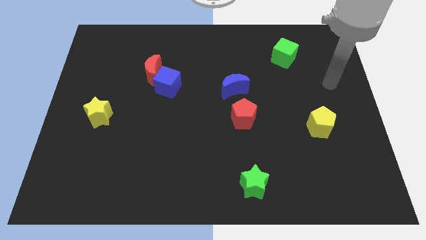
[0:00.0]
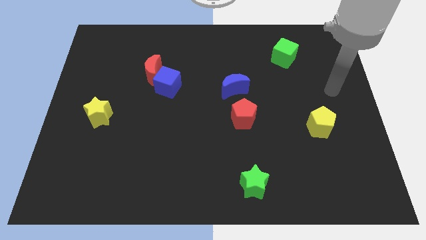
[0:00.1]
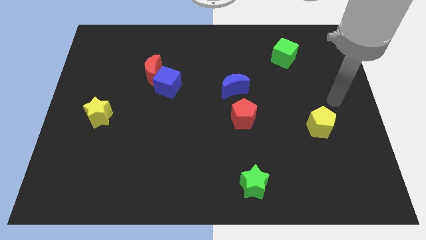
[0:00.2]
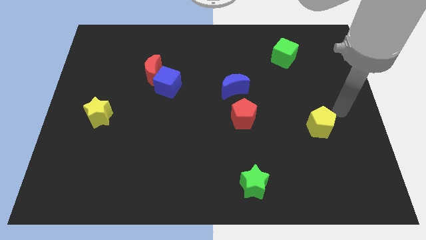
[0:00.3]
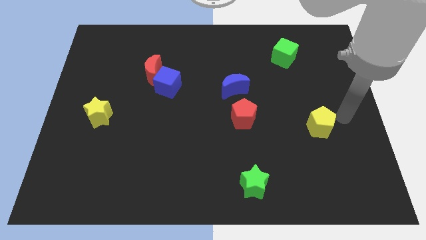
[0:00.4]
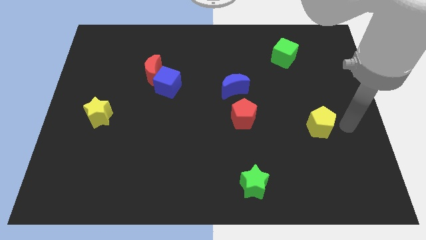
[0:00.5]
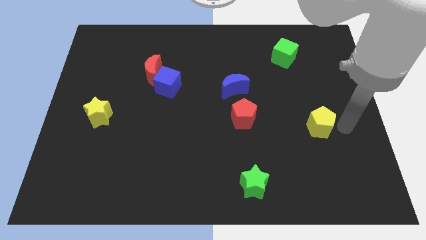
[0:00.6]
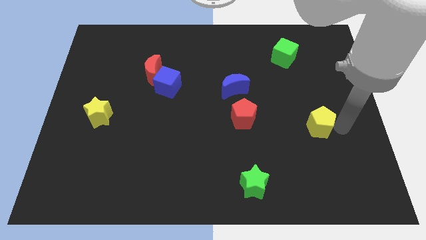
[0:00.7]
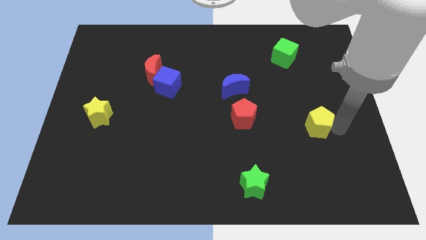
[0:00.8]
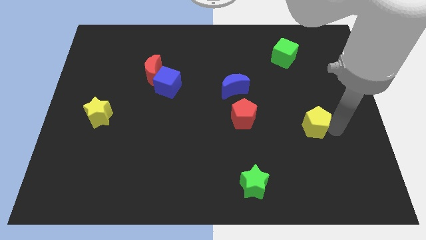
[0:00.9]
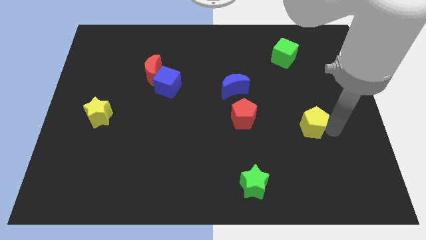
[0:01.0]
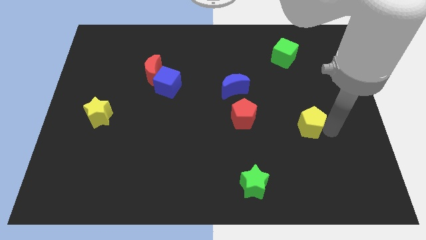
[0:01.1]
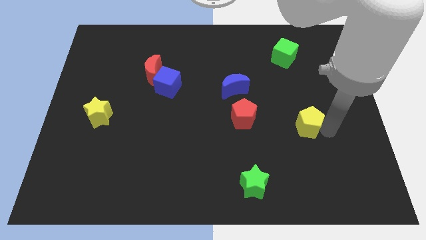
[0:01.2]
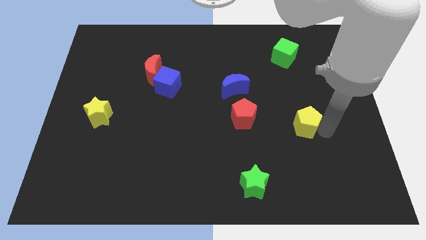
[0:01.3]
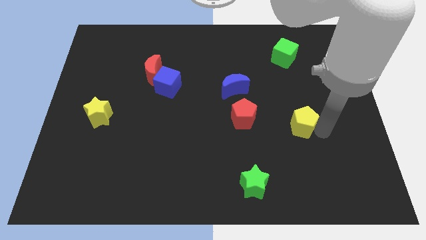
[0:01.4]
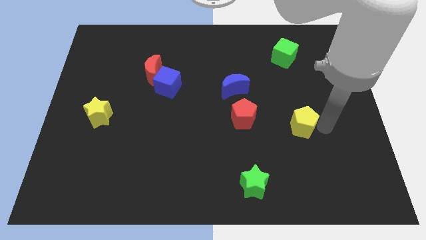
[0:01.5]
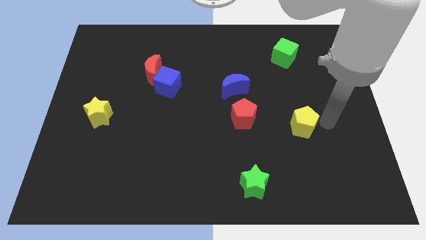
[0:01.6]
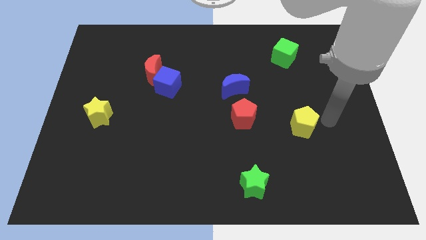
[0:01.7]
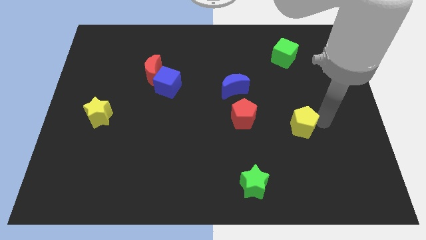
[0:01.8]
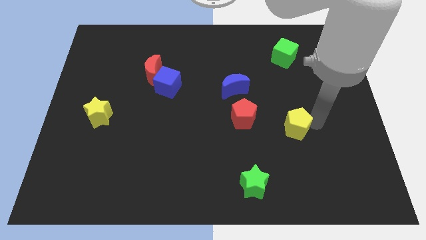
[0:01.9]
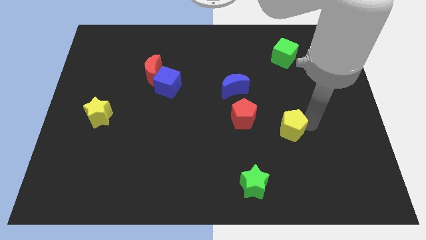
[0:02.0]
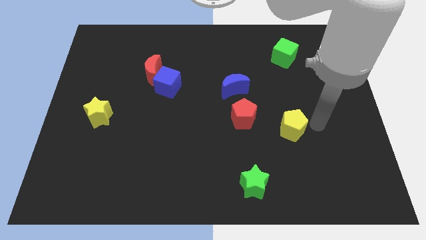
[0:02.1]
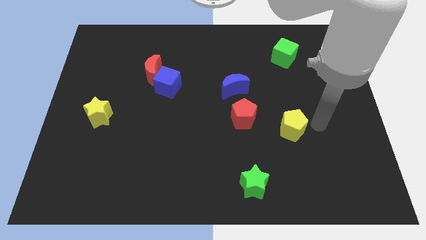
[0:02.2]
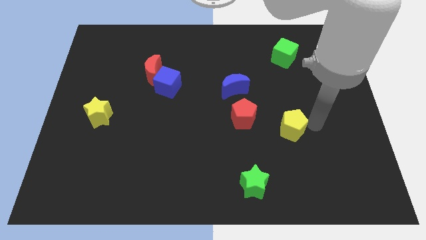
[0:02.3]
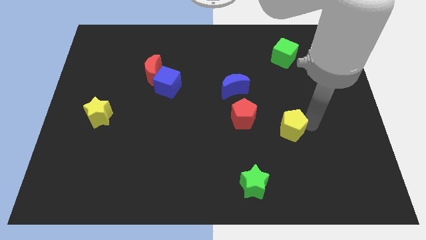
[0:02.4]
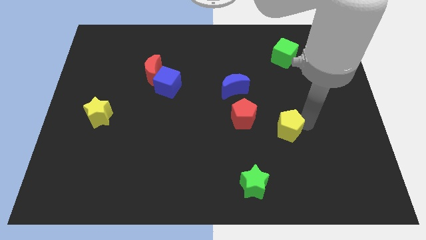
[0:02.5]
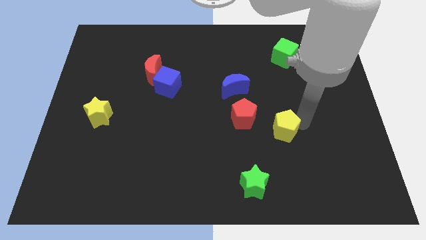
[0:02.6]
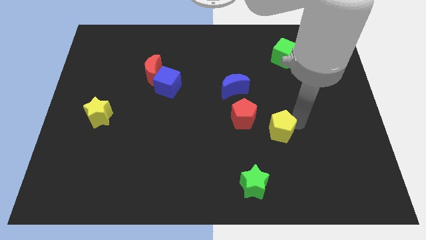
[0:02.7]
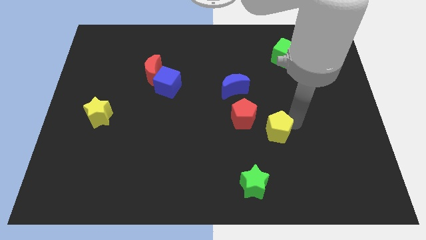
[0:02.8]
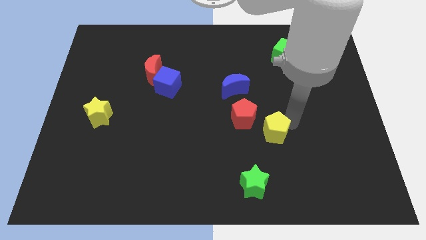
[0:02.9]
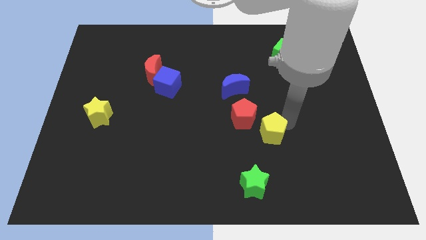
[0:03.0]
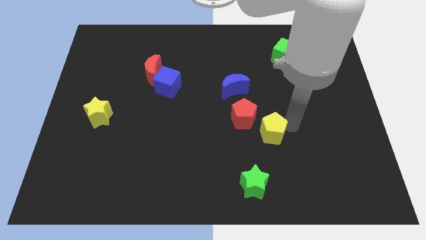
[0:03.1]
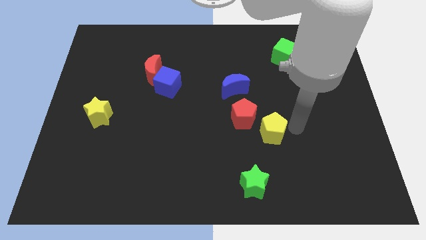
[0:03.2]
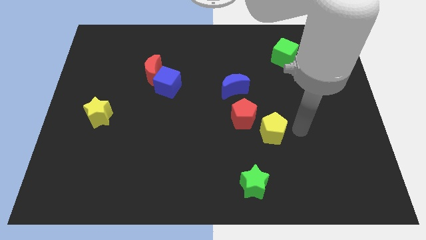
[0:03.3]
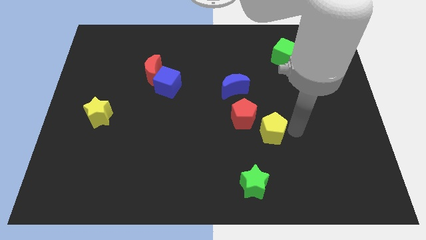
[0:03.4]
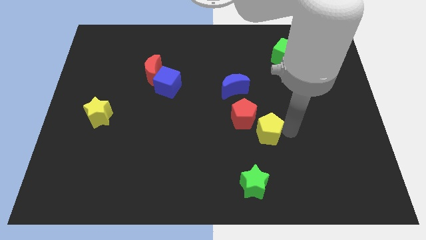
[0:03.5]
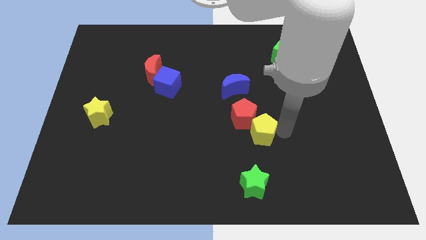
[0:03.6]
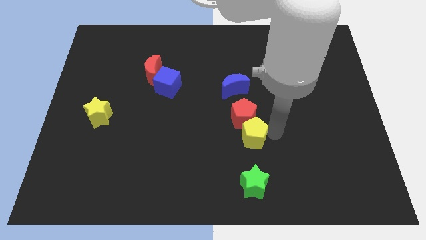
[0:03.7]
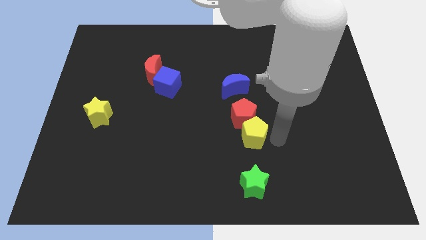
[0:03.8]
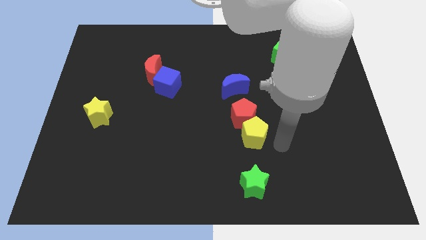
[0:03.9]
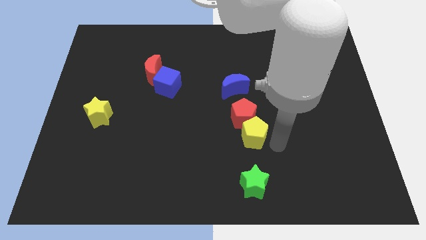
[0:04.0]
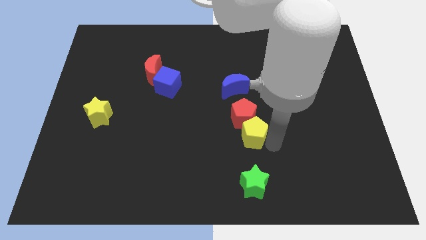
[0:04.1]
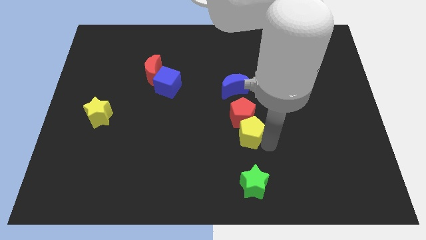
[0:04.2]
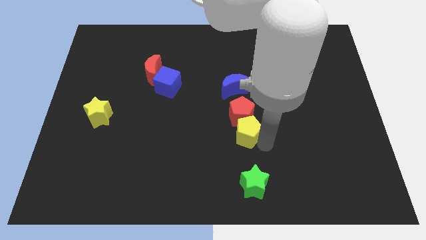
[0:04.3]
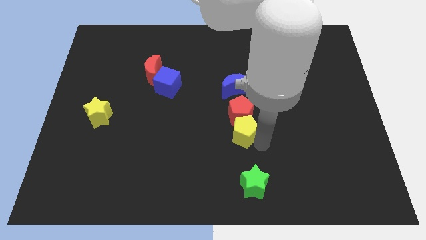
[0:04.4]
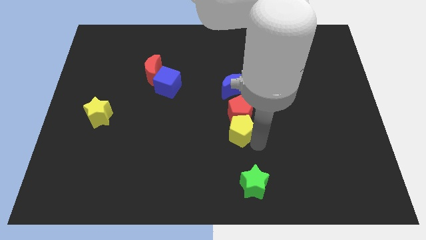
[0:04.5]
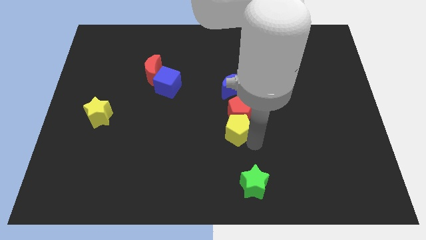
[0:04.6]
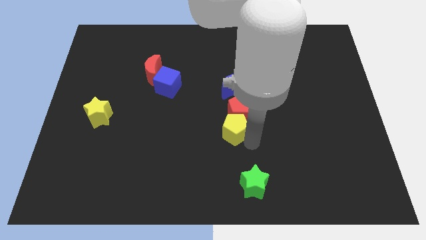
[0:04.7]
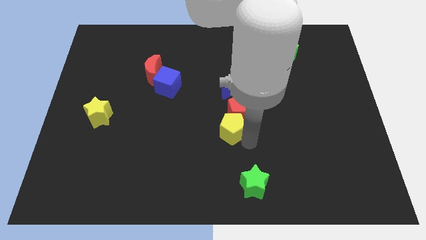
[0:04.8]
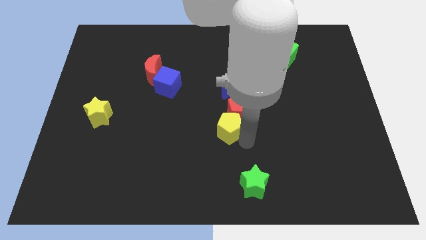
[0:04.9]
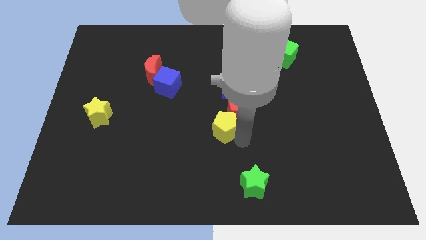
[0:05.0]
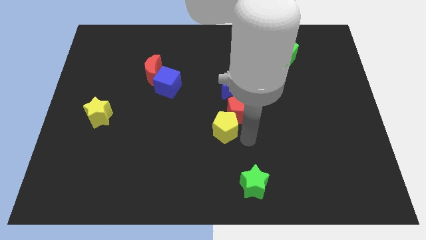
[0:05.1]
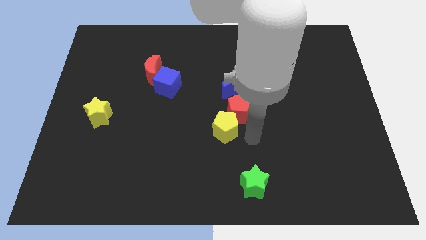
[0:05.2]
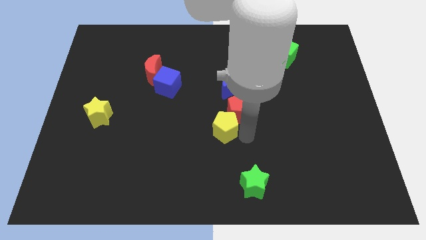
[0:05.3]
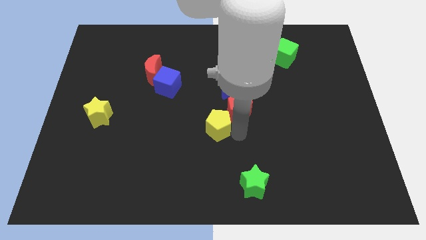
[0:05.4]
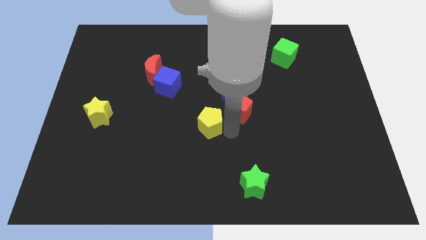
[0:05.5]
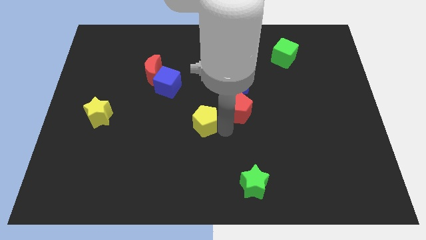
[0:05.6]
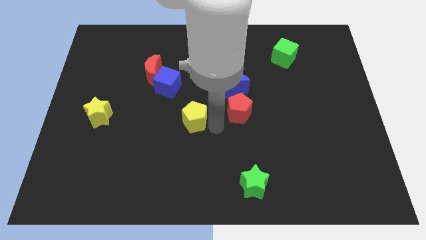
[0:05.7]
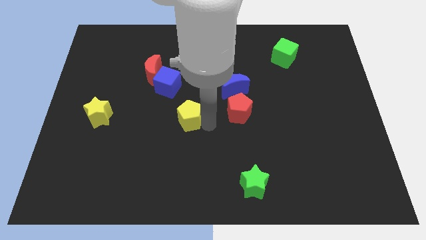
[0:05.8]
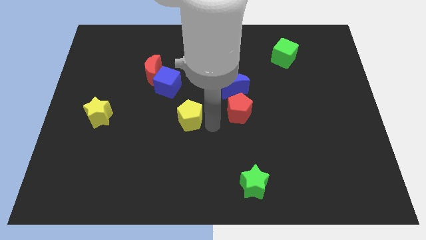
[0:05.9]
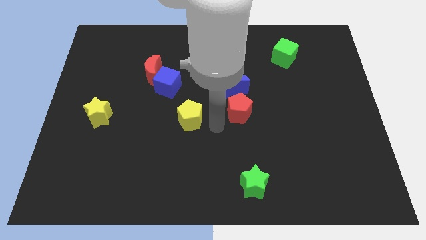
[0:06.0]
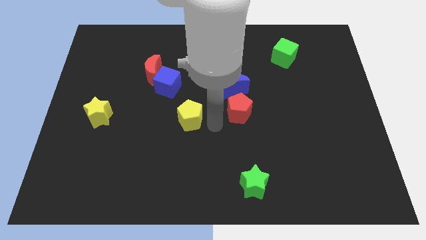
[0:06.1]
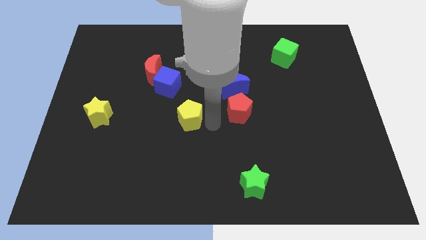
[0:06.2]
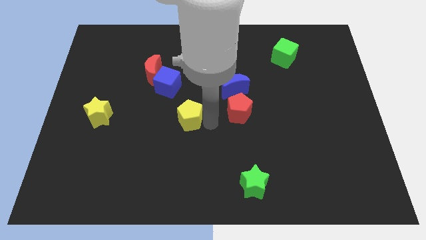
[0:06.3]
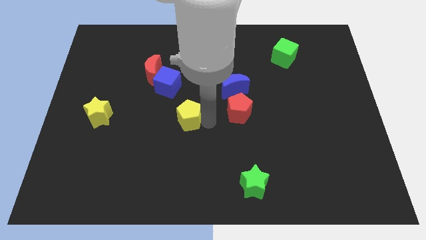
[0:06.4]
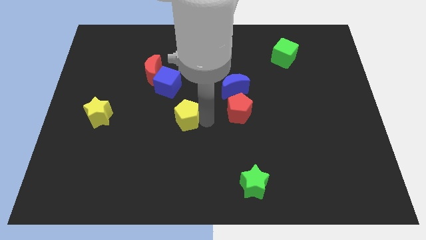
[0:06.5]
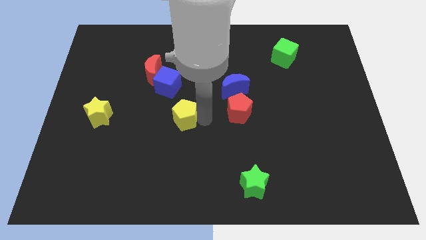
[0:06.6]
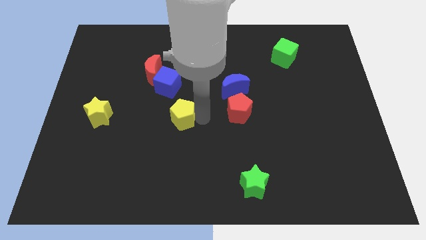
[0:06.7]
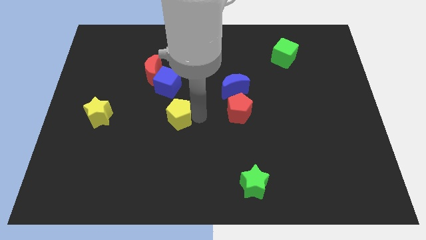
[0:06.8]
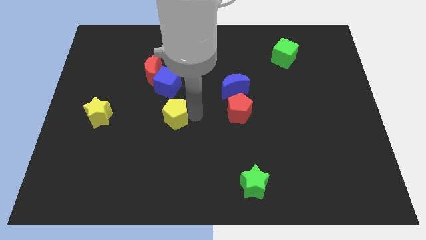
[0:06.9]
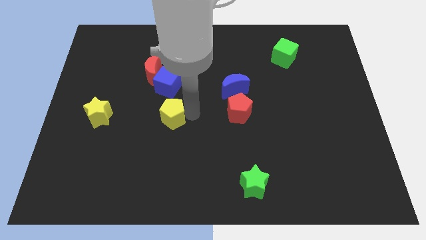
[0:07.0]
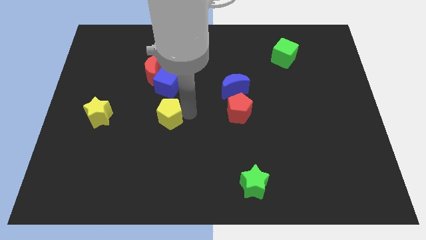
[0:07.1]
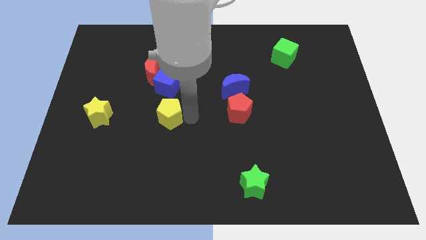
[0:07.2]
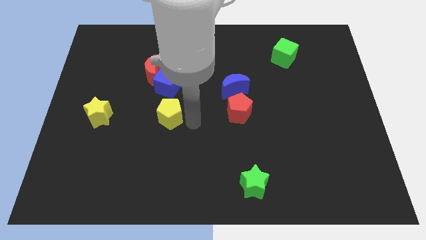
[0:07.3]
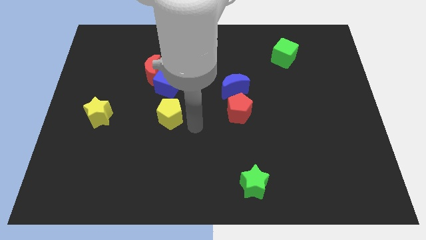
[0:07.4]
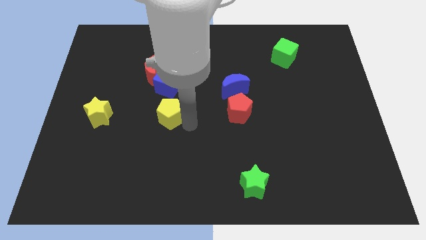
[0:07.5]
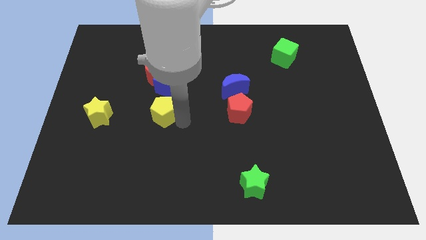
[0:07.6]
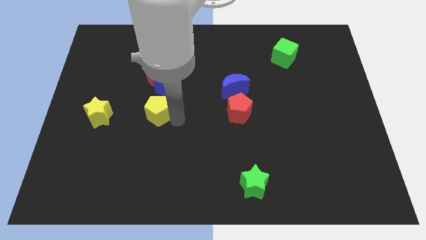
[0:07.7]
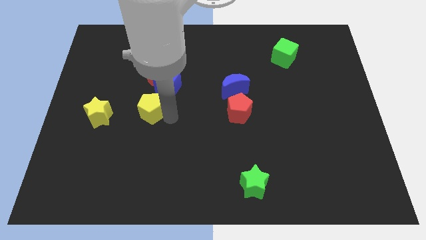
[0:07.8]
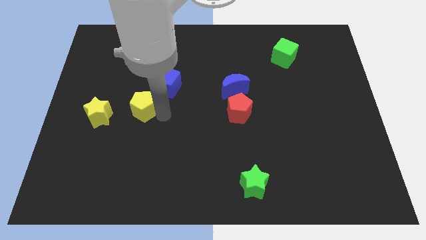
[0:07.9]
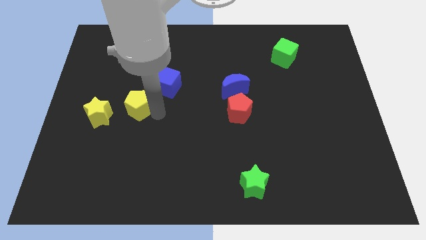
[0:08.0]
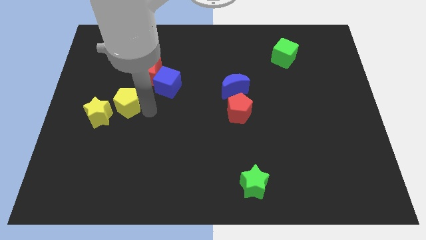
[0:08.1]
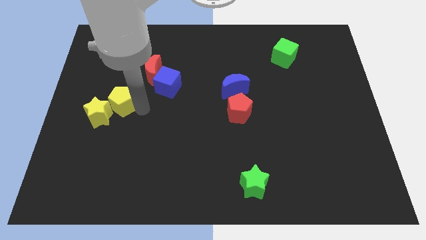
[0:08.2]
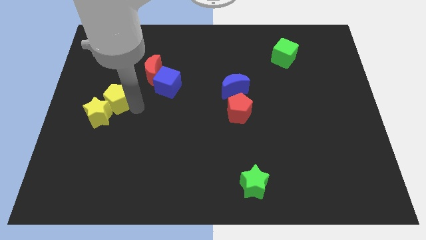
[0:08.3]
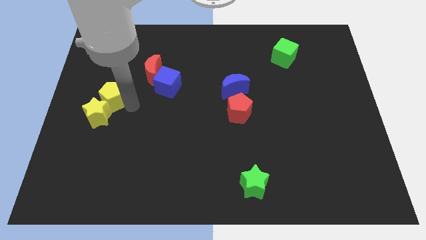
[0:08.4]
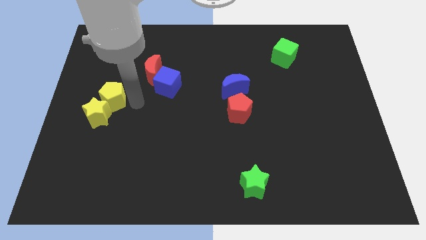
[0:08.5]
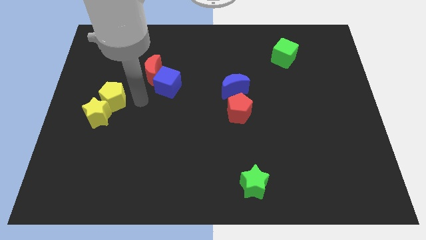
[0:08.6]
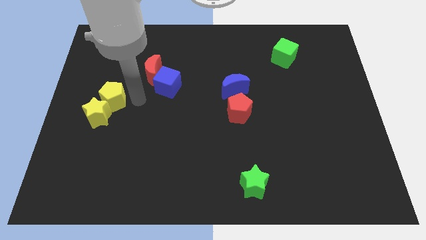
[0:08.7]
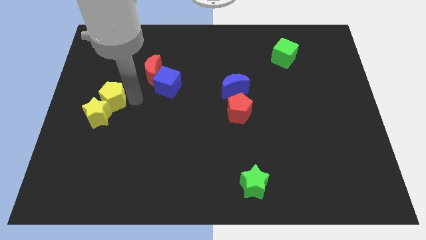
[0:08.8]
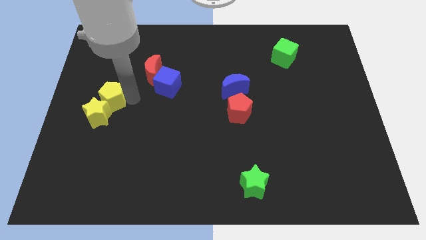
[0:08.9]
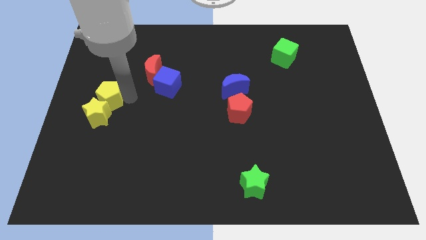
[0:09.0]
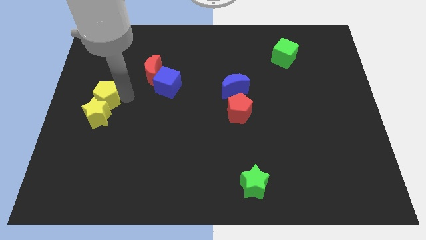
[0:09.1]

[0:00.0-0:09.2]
push the yellow pentagon to the center left
